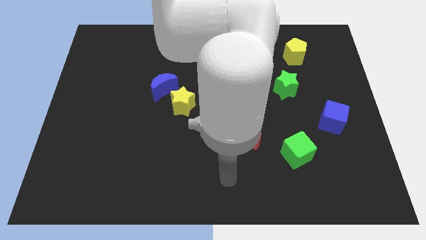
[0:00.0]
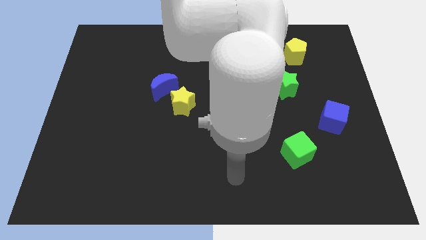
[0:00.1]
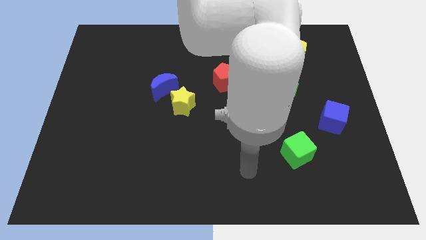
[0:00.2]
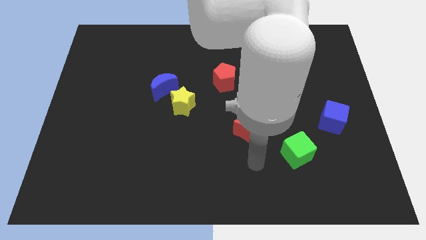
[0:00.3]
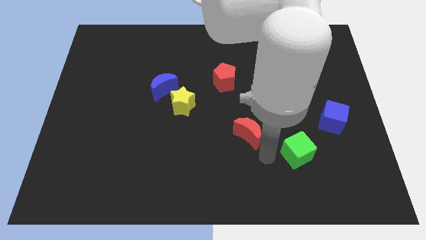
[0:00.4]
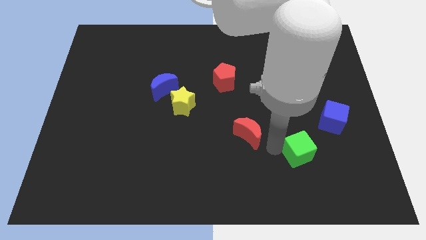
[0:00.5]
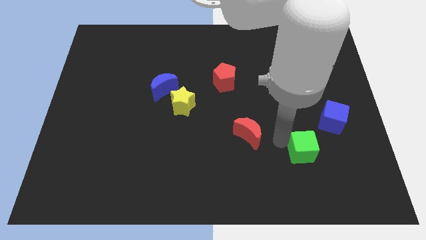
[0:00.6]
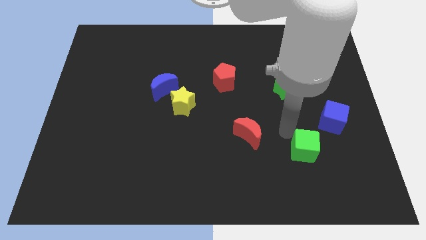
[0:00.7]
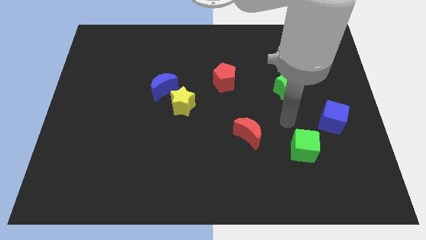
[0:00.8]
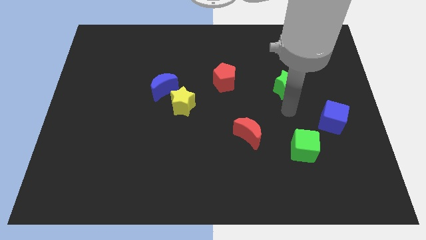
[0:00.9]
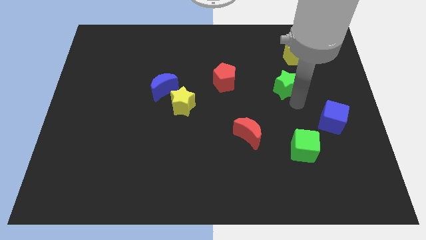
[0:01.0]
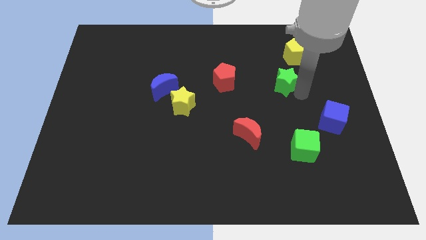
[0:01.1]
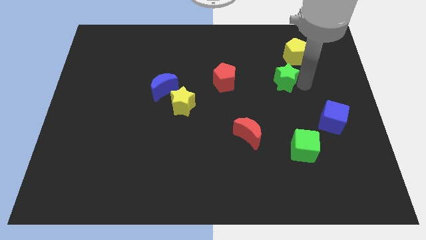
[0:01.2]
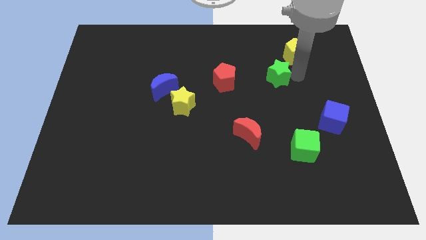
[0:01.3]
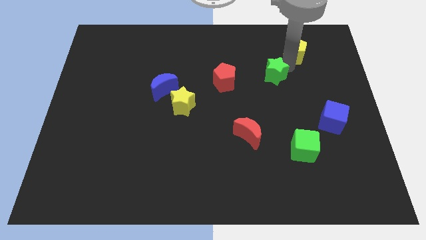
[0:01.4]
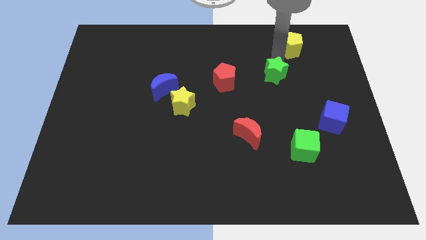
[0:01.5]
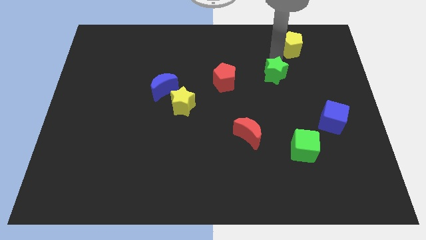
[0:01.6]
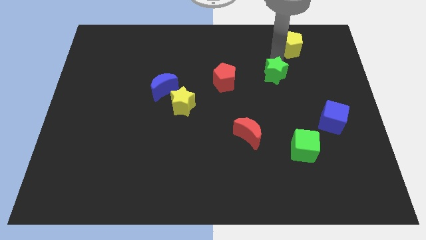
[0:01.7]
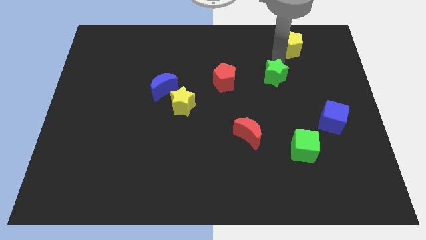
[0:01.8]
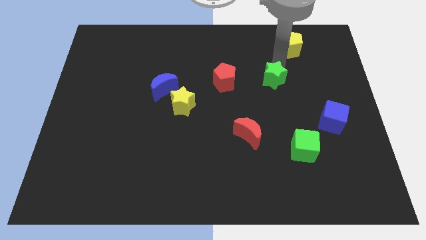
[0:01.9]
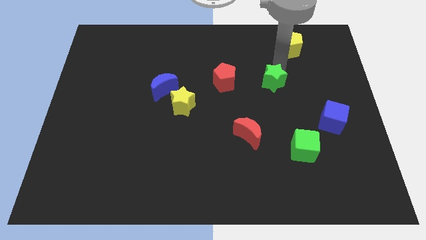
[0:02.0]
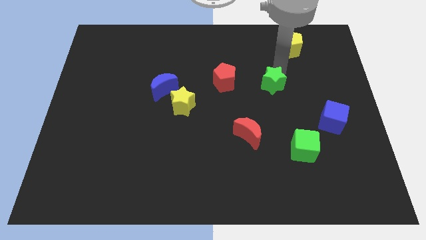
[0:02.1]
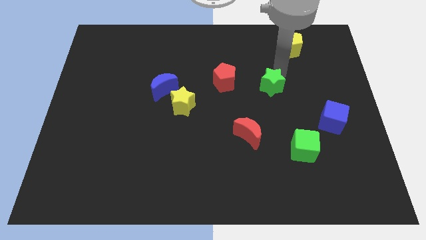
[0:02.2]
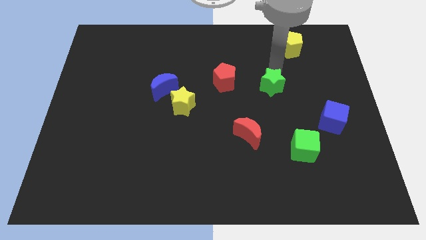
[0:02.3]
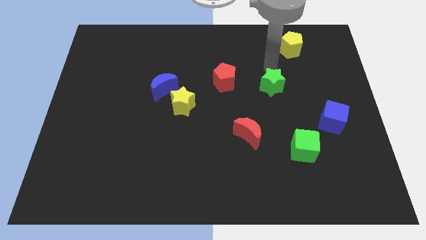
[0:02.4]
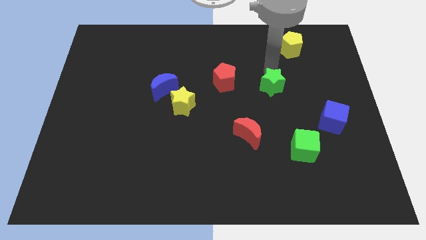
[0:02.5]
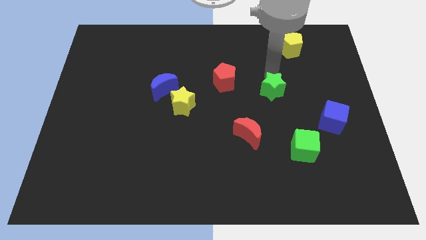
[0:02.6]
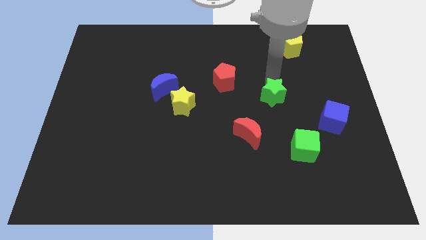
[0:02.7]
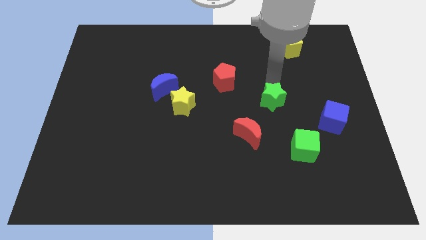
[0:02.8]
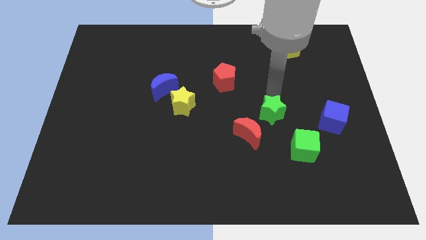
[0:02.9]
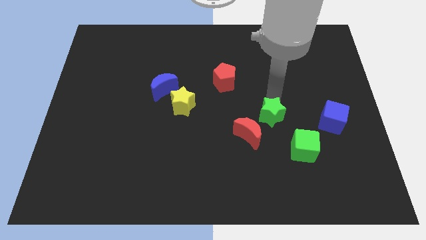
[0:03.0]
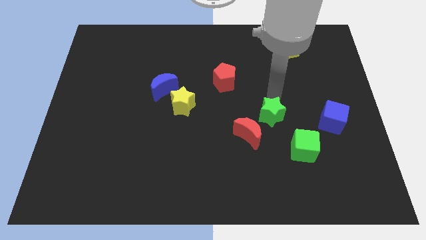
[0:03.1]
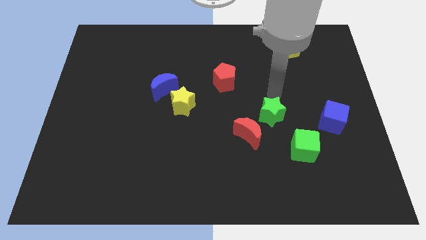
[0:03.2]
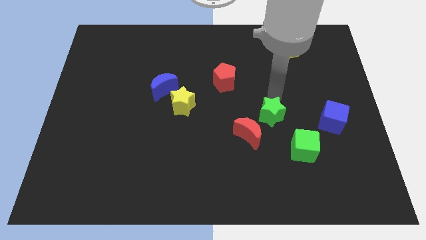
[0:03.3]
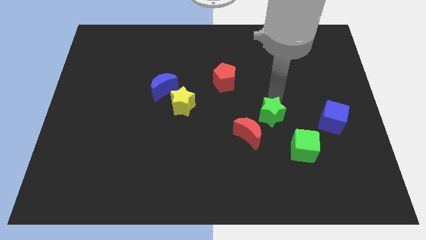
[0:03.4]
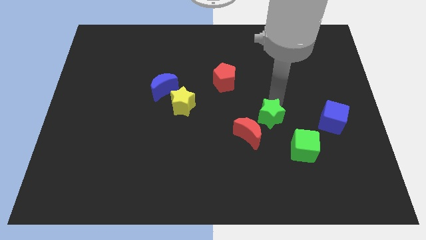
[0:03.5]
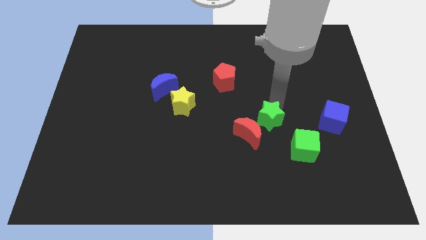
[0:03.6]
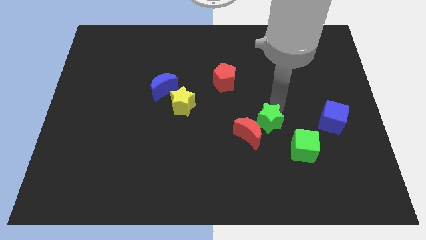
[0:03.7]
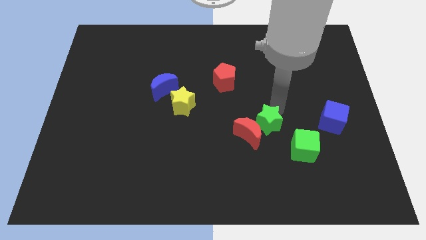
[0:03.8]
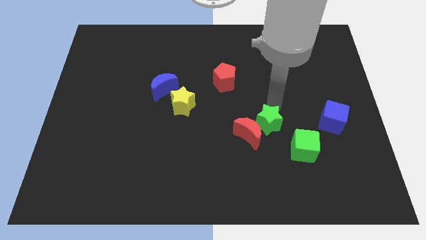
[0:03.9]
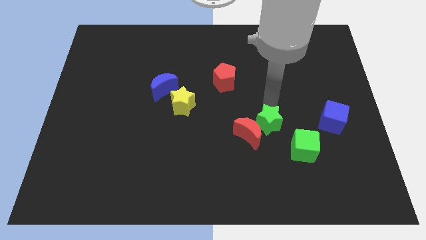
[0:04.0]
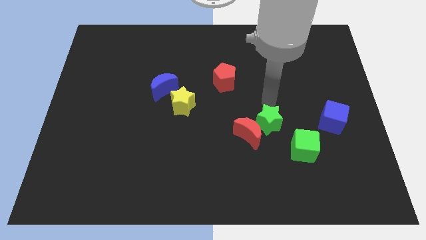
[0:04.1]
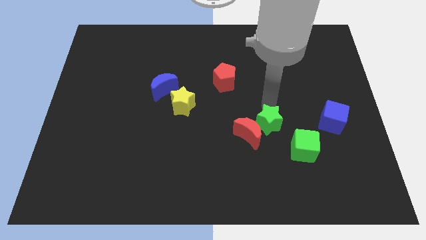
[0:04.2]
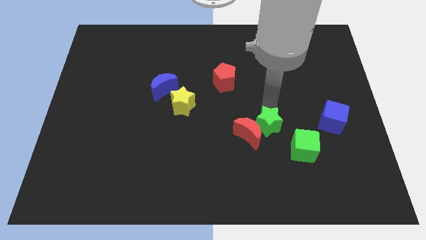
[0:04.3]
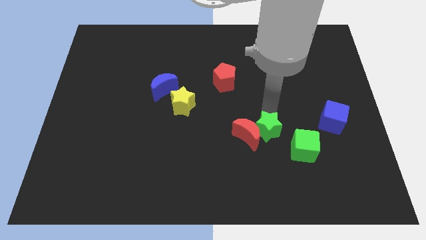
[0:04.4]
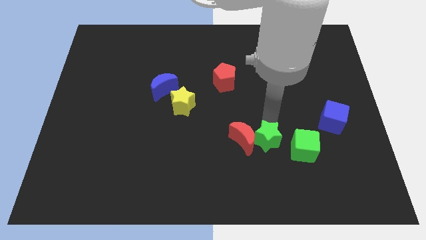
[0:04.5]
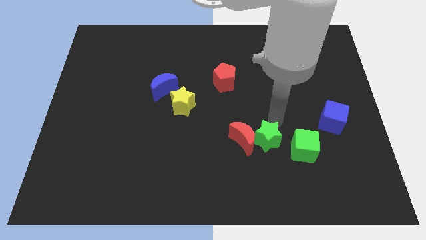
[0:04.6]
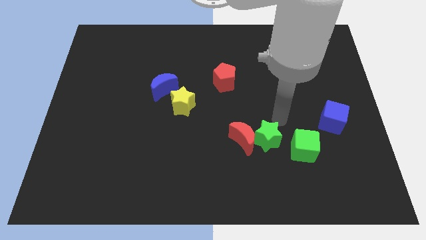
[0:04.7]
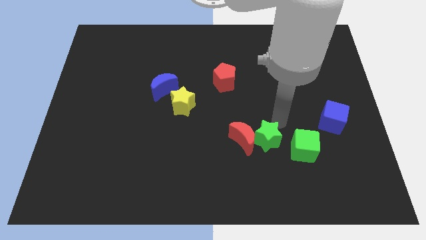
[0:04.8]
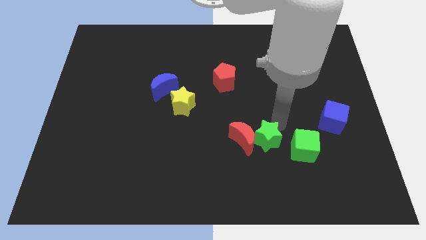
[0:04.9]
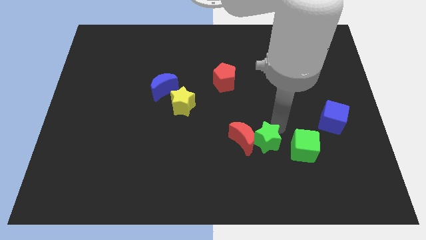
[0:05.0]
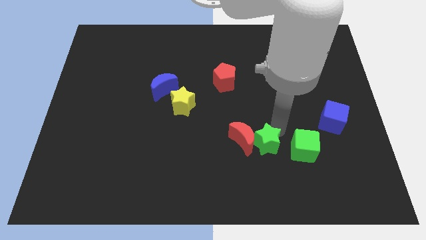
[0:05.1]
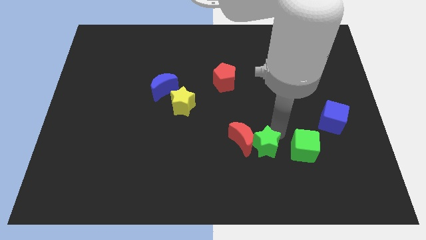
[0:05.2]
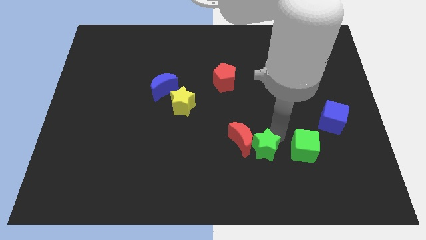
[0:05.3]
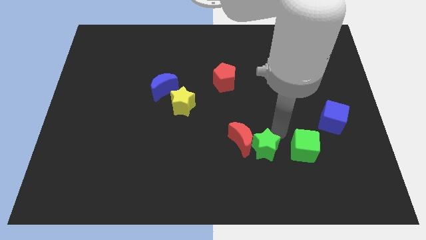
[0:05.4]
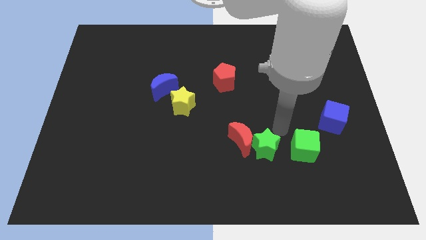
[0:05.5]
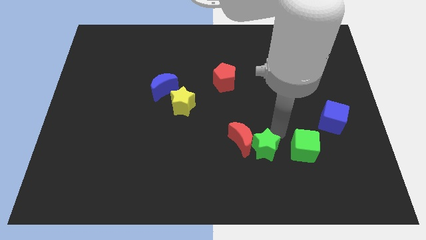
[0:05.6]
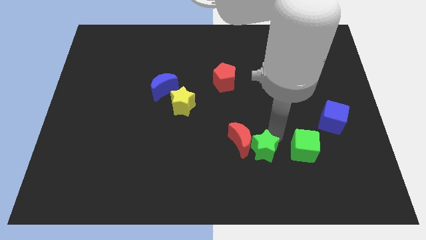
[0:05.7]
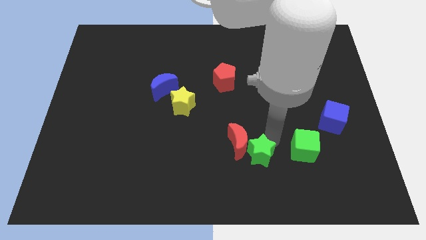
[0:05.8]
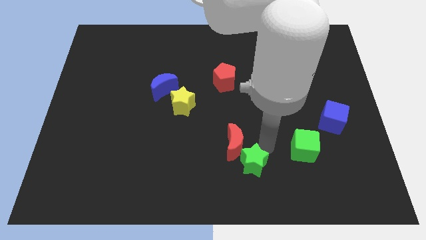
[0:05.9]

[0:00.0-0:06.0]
push the green star to the bottom

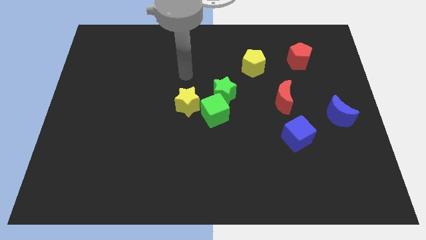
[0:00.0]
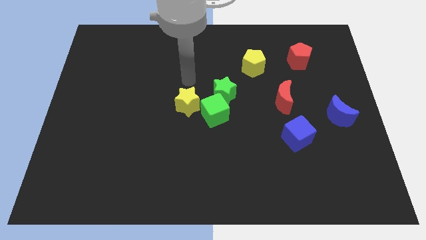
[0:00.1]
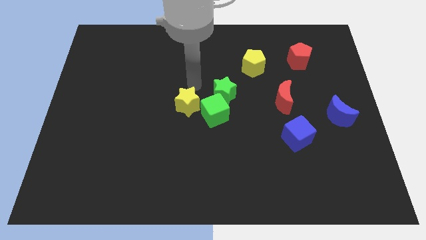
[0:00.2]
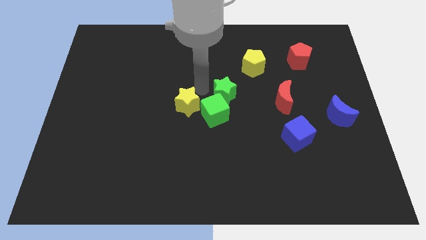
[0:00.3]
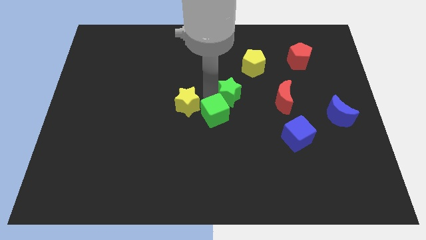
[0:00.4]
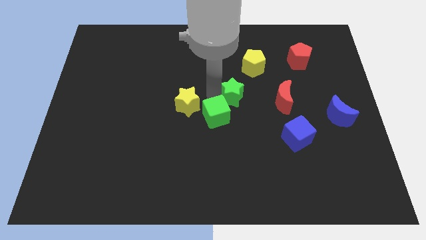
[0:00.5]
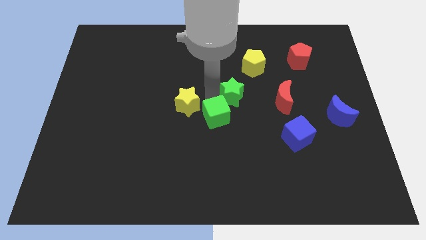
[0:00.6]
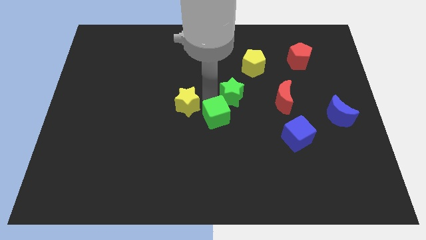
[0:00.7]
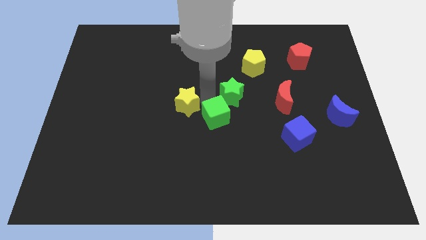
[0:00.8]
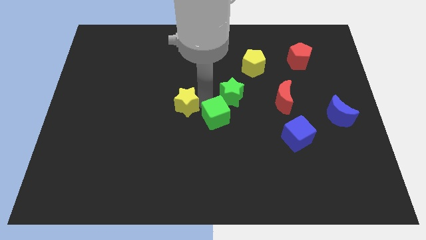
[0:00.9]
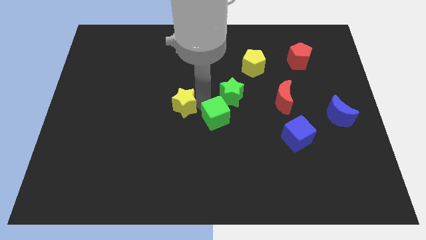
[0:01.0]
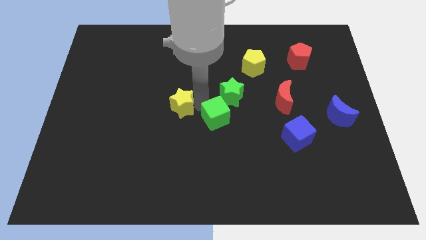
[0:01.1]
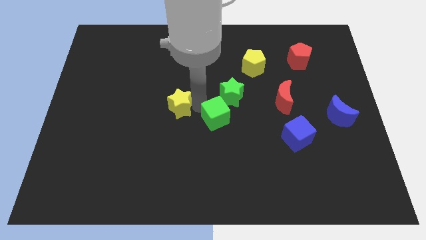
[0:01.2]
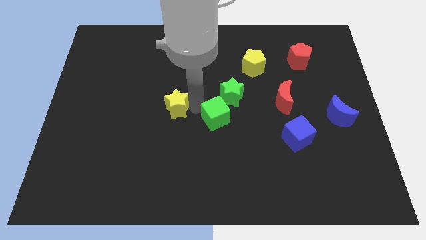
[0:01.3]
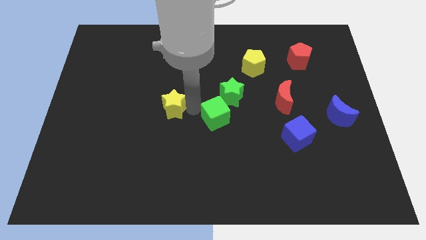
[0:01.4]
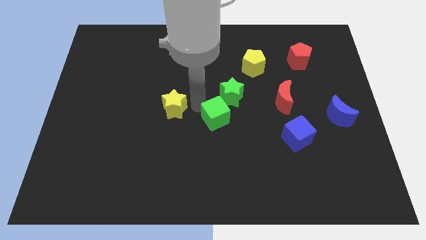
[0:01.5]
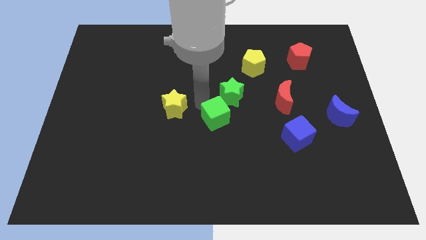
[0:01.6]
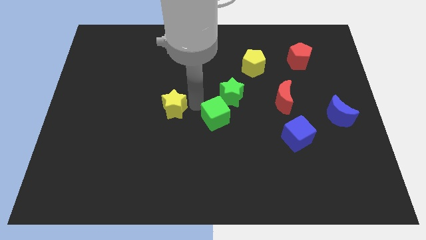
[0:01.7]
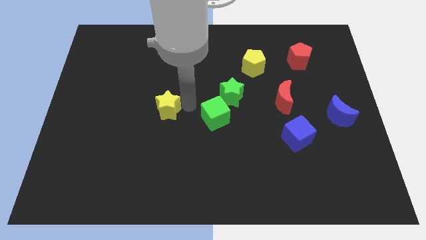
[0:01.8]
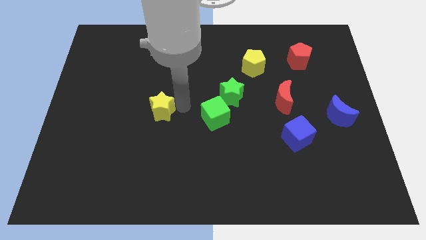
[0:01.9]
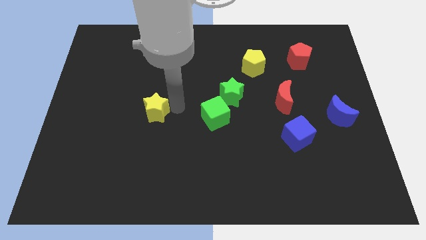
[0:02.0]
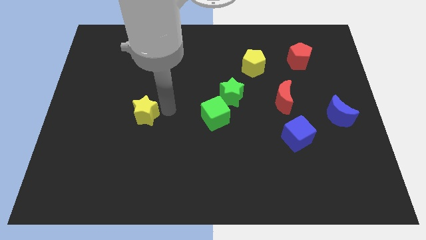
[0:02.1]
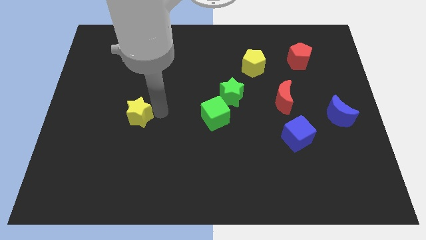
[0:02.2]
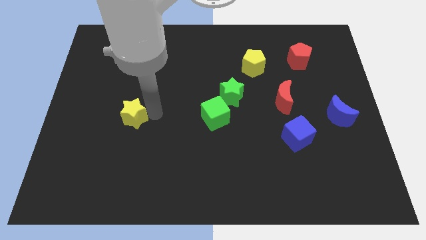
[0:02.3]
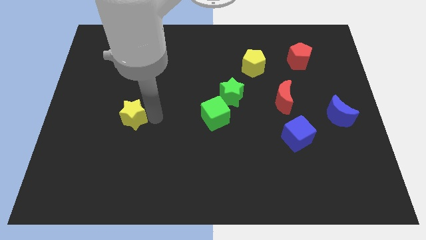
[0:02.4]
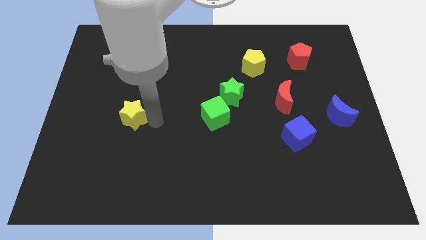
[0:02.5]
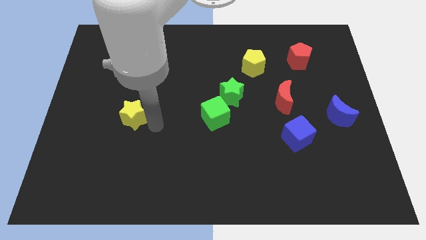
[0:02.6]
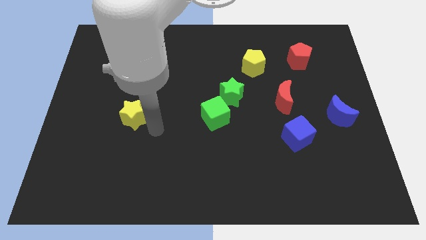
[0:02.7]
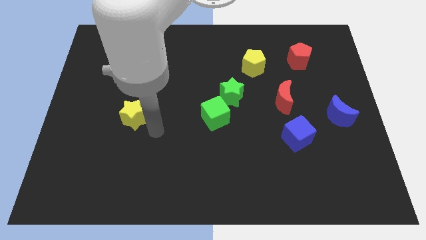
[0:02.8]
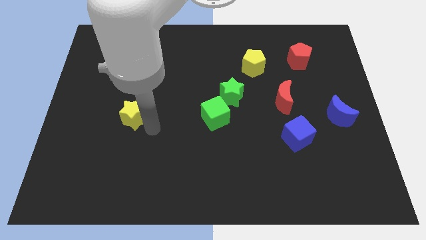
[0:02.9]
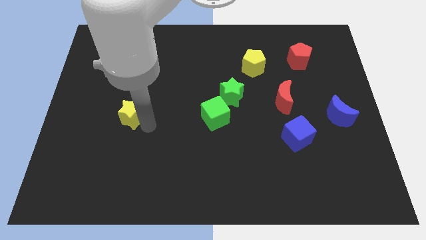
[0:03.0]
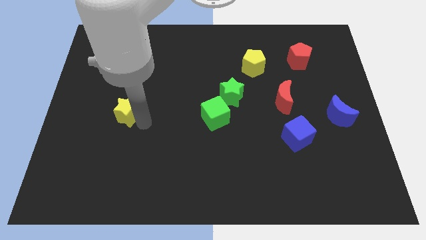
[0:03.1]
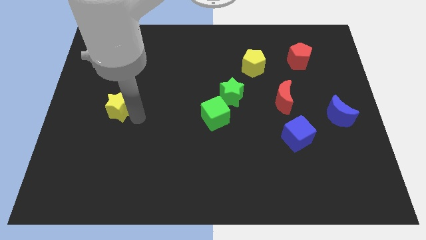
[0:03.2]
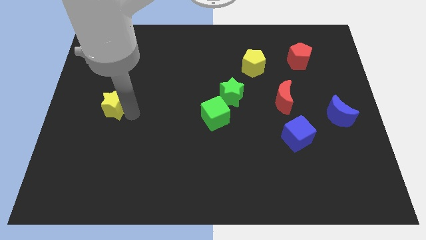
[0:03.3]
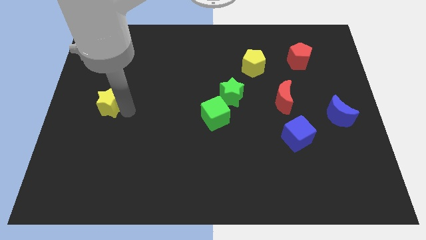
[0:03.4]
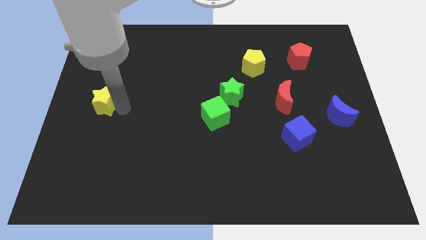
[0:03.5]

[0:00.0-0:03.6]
push the yellow star to the left side of the board
